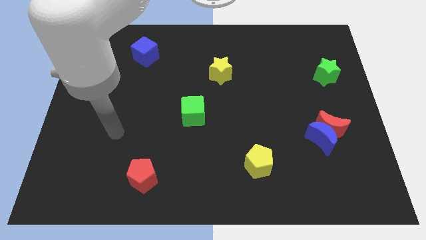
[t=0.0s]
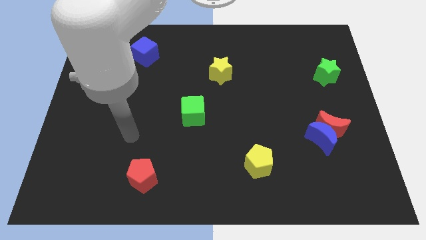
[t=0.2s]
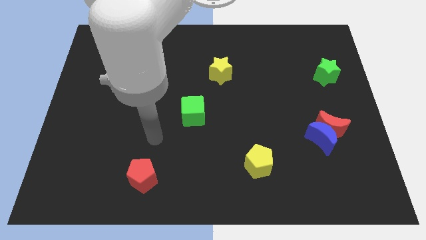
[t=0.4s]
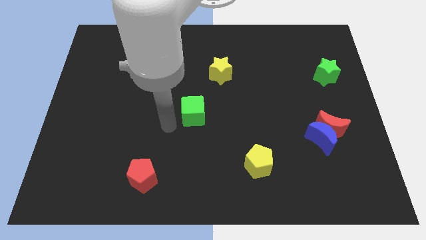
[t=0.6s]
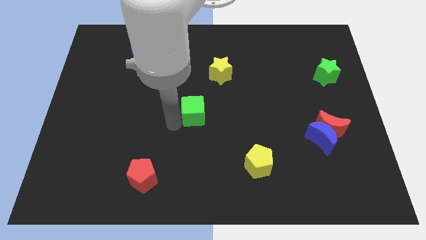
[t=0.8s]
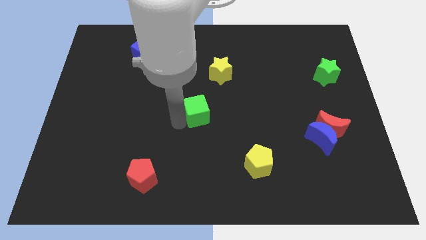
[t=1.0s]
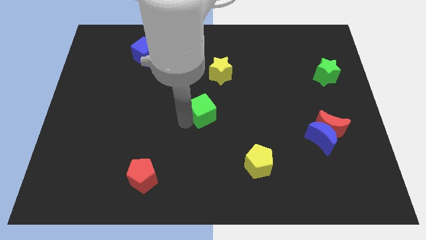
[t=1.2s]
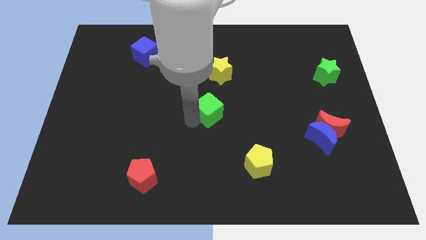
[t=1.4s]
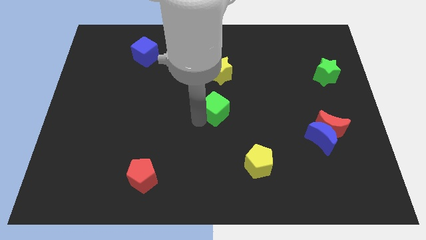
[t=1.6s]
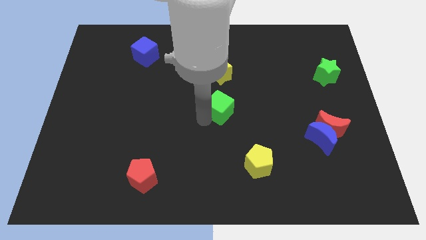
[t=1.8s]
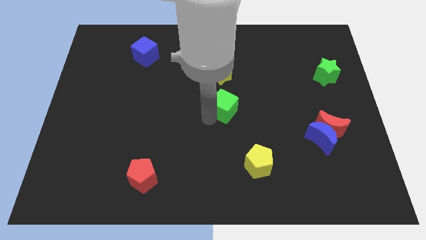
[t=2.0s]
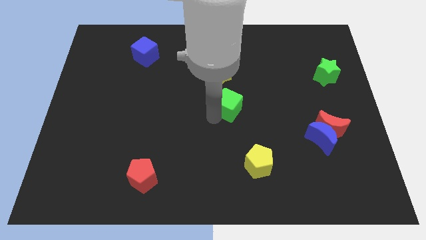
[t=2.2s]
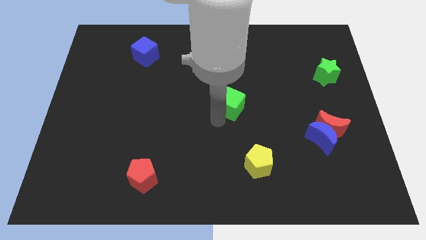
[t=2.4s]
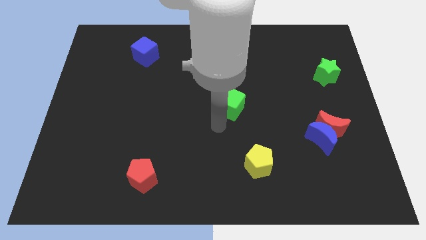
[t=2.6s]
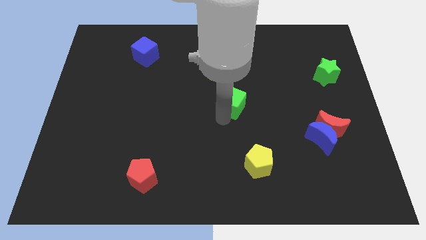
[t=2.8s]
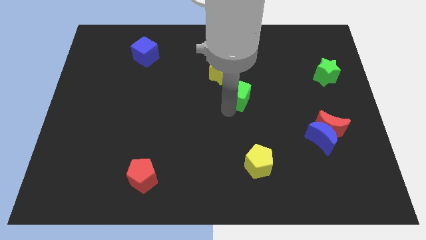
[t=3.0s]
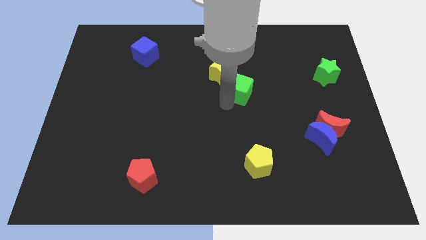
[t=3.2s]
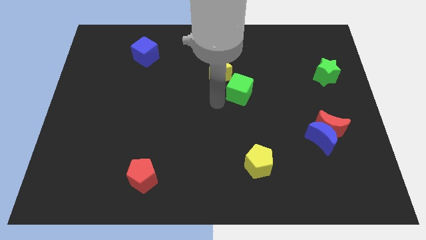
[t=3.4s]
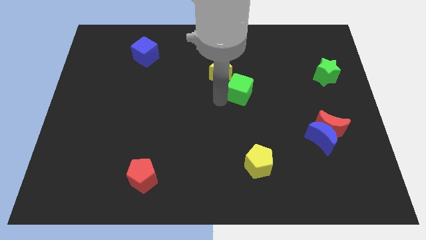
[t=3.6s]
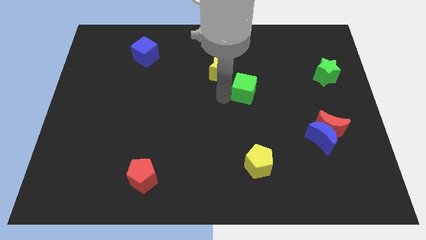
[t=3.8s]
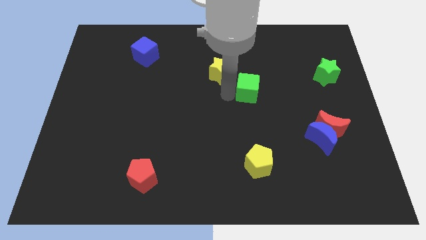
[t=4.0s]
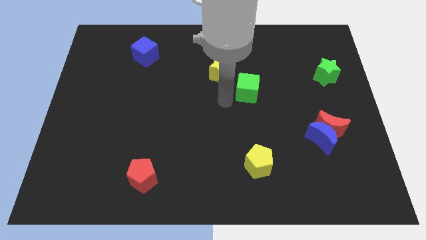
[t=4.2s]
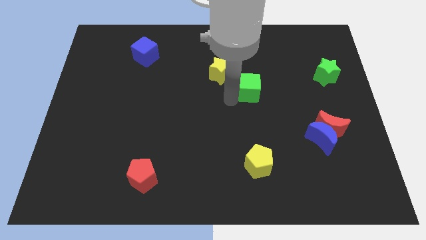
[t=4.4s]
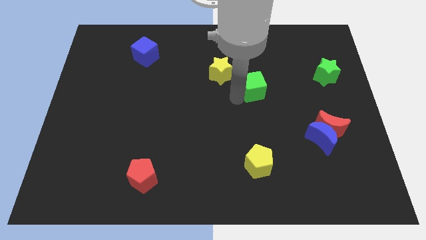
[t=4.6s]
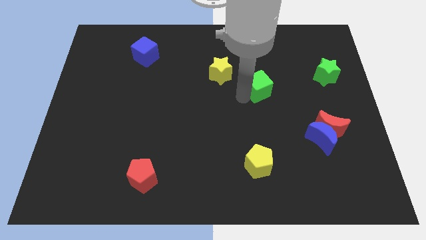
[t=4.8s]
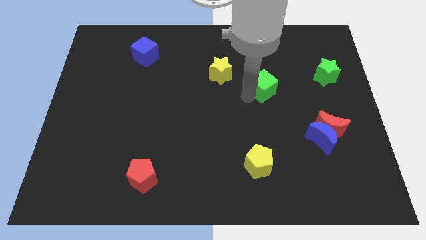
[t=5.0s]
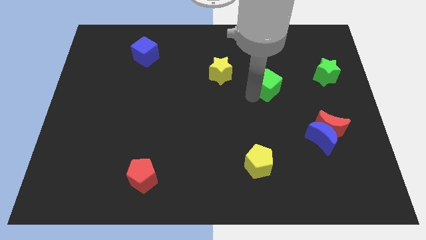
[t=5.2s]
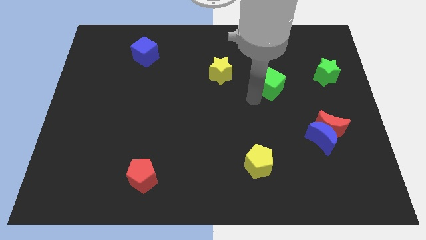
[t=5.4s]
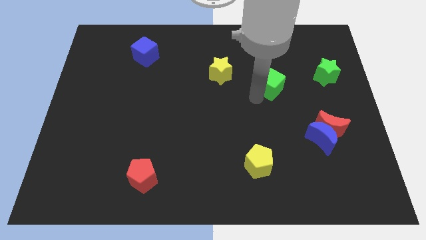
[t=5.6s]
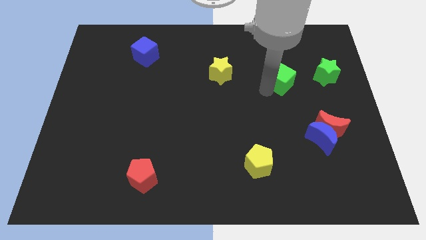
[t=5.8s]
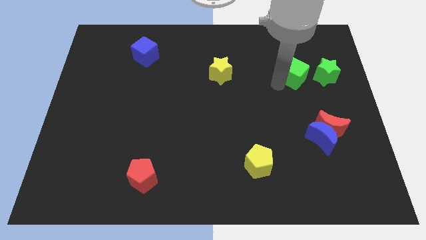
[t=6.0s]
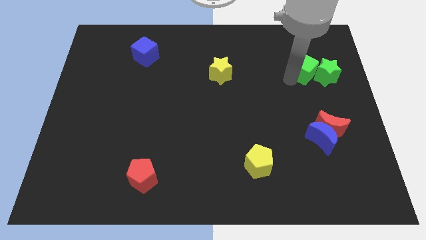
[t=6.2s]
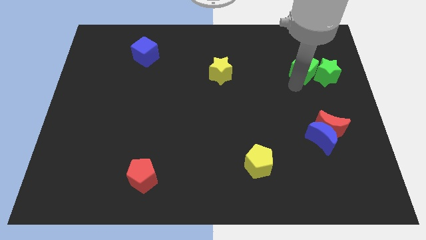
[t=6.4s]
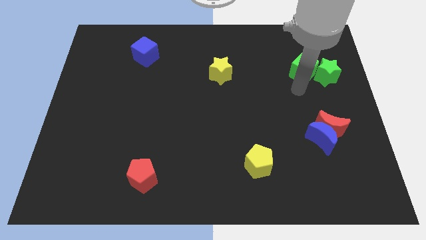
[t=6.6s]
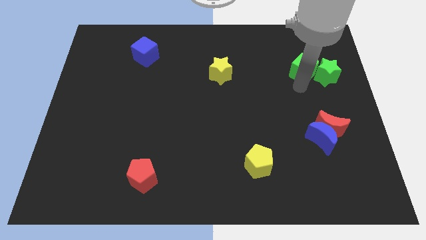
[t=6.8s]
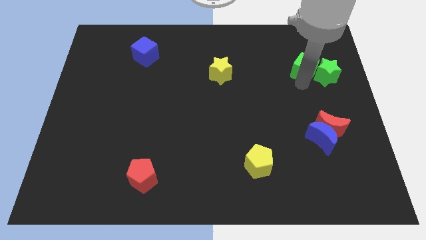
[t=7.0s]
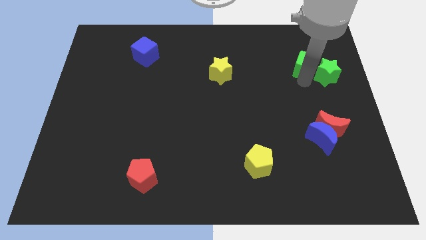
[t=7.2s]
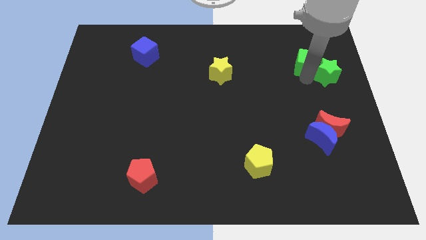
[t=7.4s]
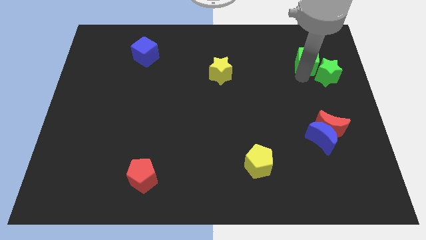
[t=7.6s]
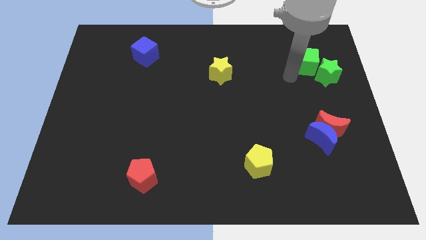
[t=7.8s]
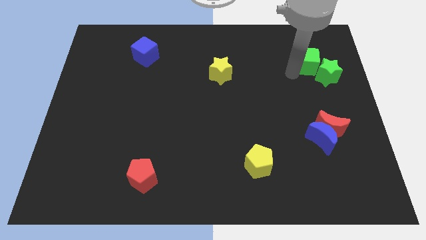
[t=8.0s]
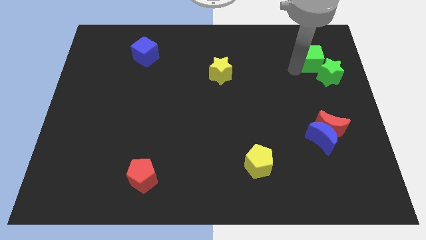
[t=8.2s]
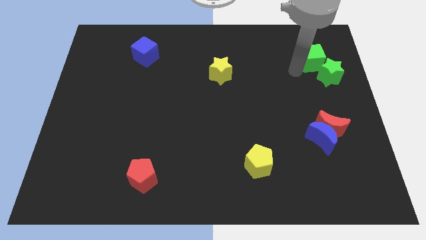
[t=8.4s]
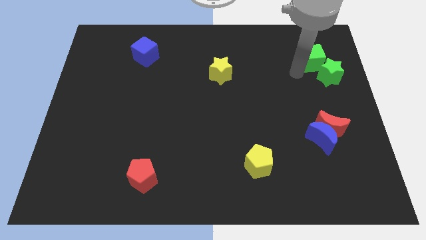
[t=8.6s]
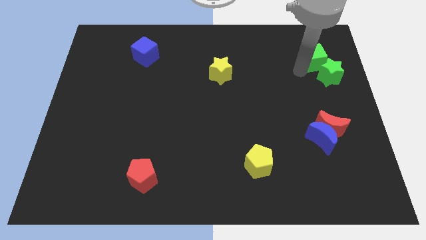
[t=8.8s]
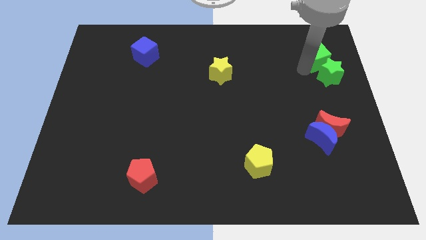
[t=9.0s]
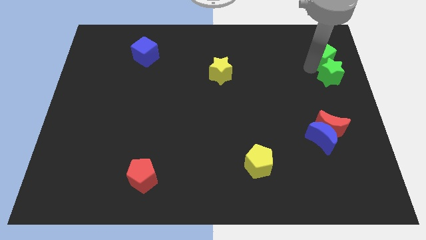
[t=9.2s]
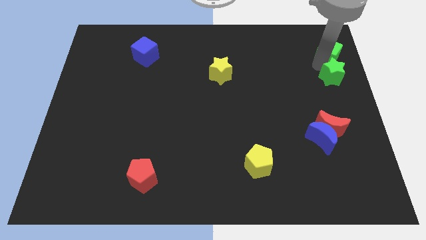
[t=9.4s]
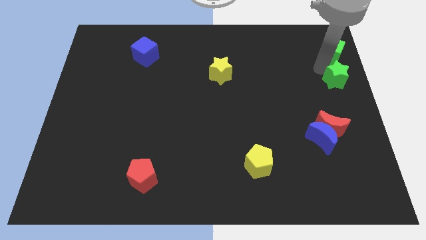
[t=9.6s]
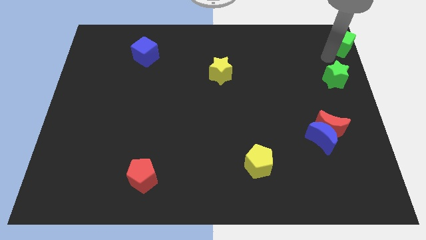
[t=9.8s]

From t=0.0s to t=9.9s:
move the green cube to the upper right corner

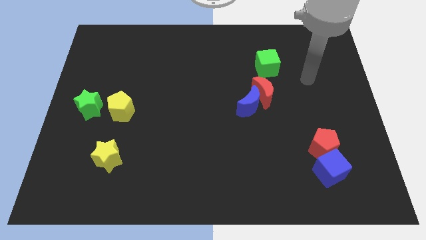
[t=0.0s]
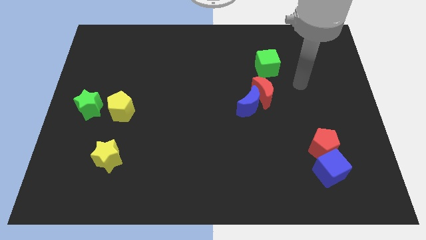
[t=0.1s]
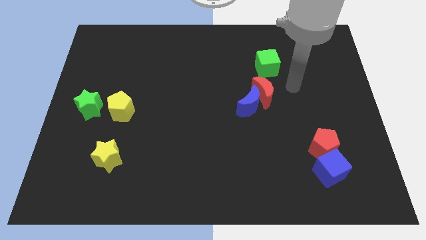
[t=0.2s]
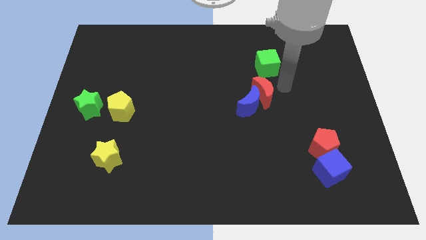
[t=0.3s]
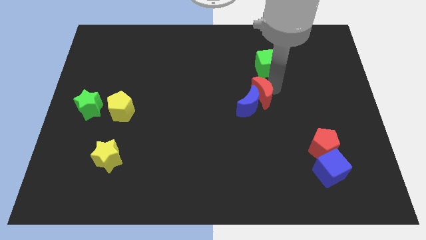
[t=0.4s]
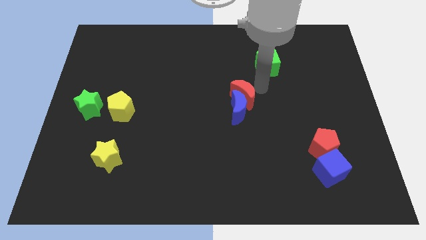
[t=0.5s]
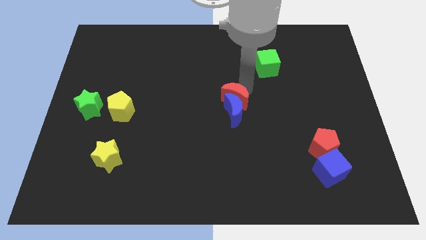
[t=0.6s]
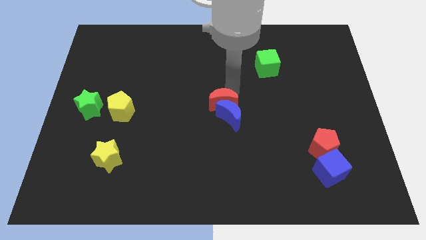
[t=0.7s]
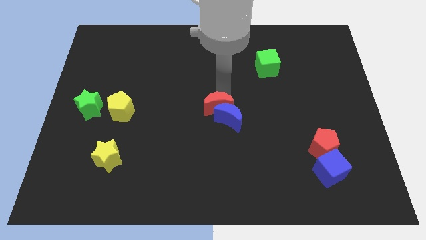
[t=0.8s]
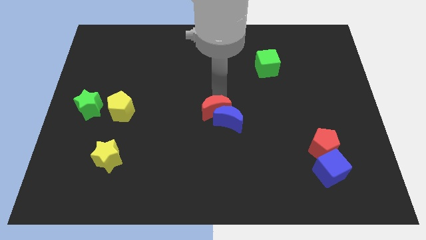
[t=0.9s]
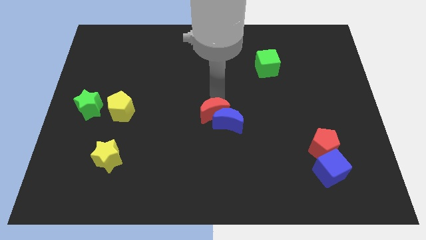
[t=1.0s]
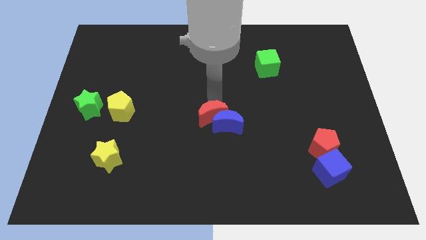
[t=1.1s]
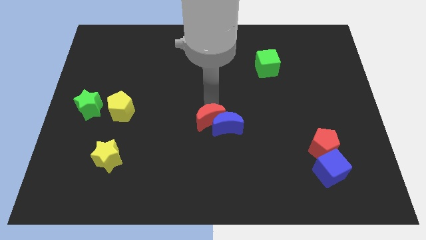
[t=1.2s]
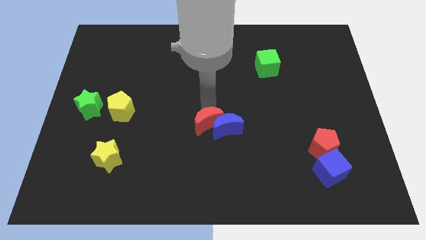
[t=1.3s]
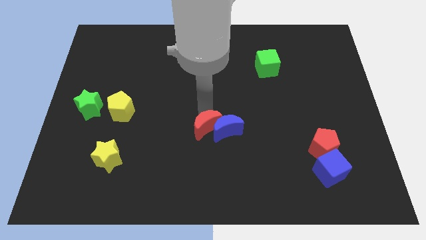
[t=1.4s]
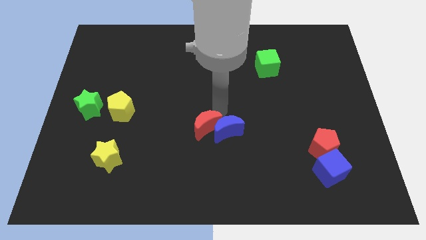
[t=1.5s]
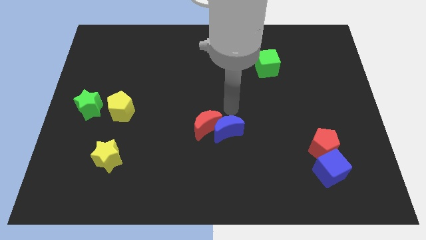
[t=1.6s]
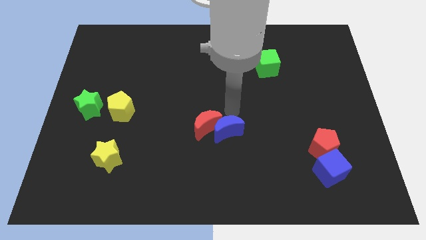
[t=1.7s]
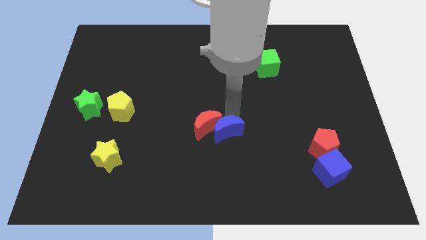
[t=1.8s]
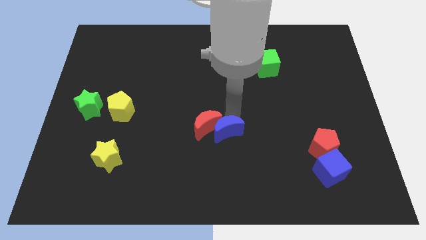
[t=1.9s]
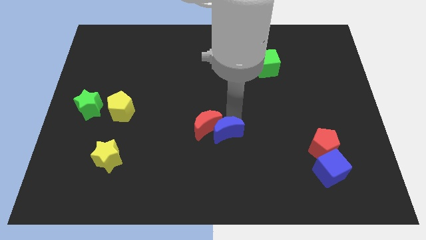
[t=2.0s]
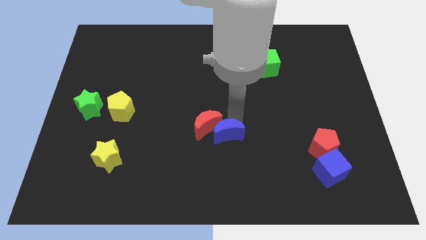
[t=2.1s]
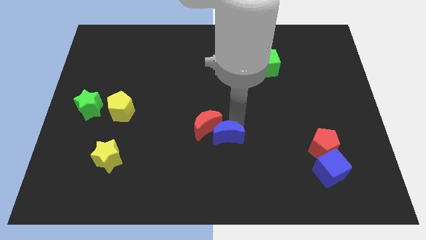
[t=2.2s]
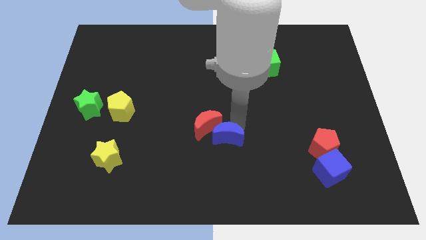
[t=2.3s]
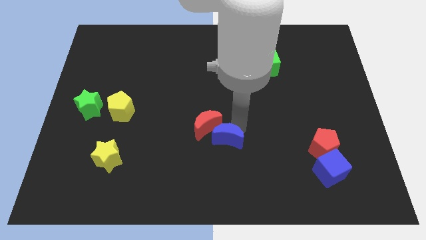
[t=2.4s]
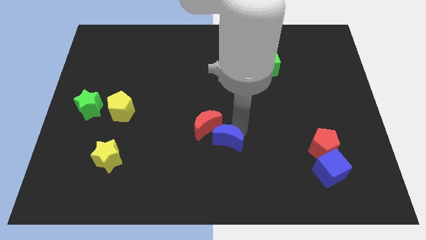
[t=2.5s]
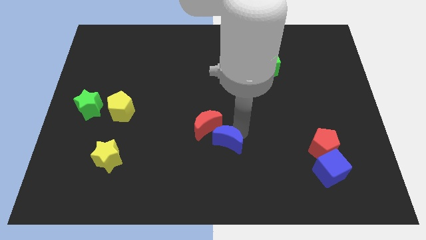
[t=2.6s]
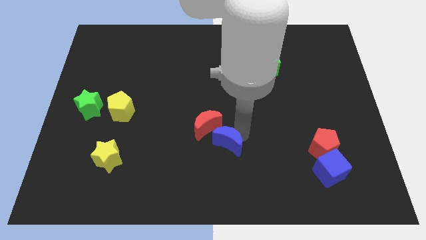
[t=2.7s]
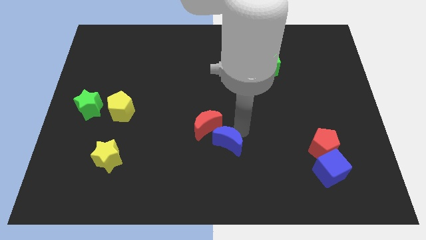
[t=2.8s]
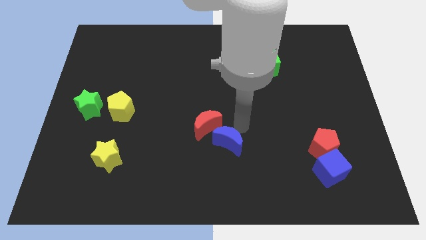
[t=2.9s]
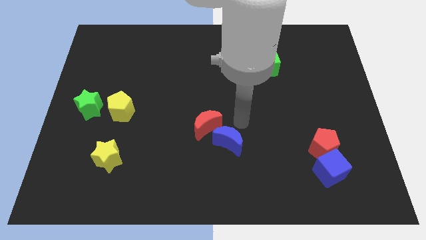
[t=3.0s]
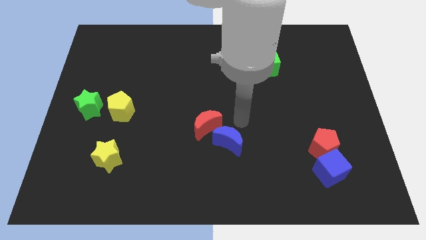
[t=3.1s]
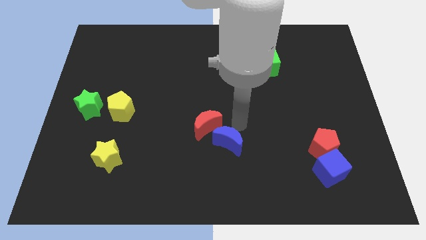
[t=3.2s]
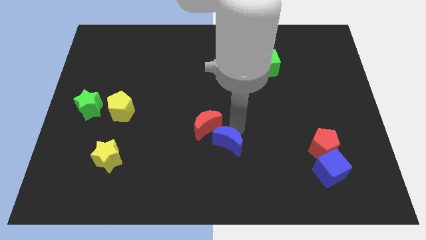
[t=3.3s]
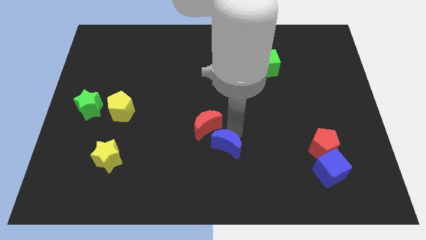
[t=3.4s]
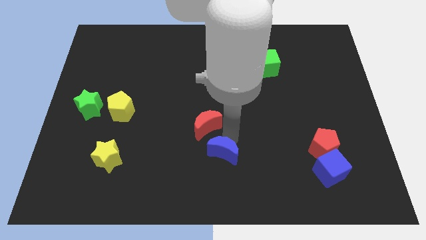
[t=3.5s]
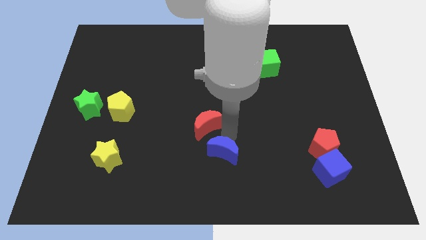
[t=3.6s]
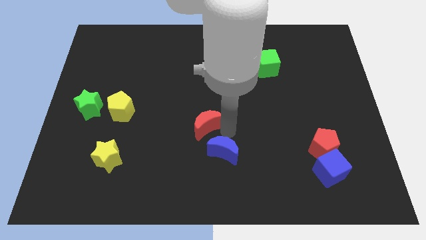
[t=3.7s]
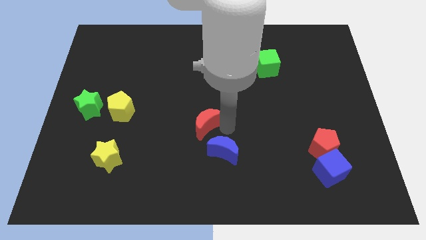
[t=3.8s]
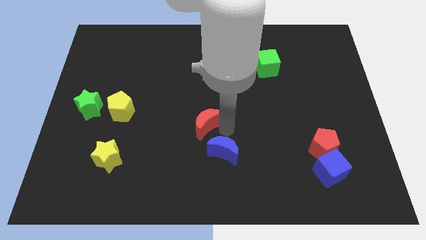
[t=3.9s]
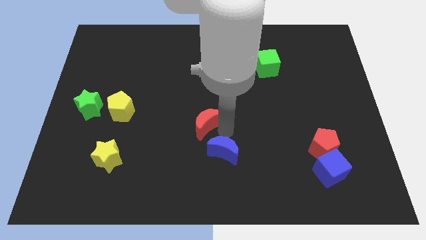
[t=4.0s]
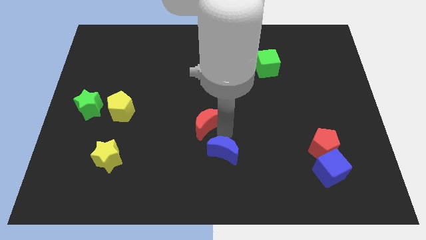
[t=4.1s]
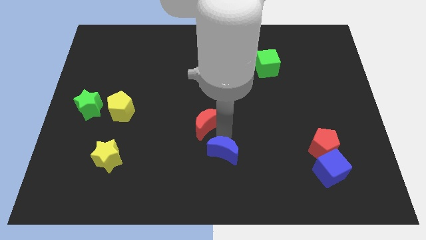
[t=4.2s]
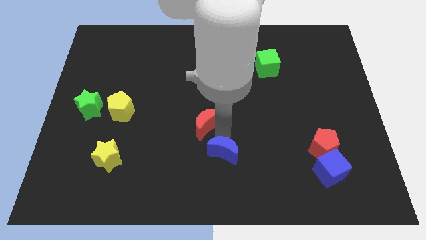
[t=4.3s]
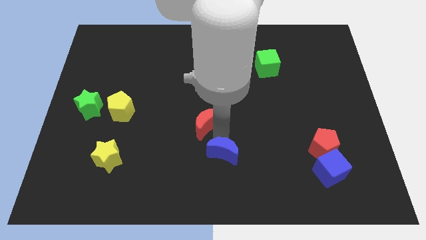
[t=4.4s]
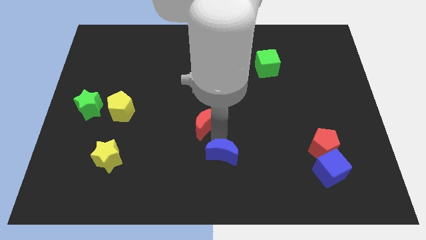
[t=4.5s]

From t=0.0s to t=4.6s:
put the blue moon to the bottom side
